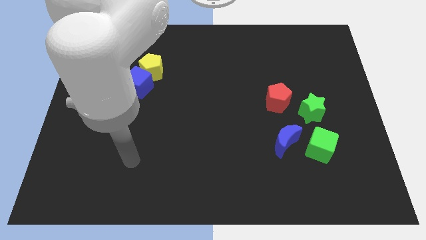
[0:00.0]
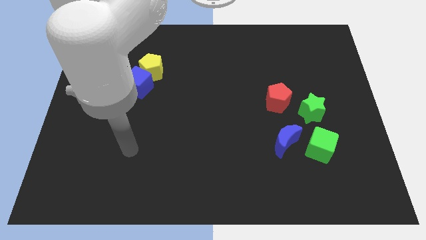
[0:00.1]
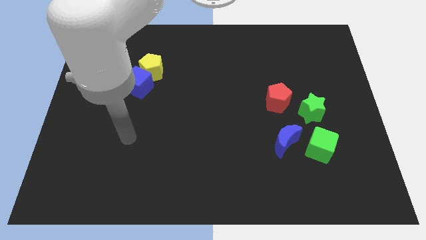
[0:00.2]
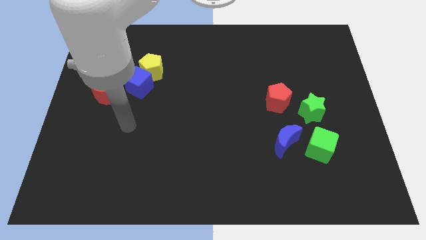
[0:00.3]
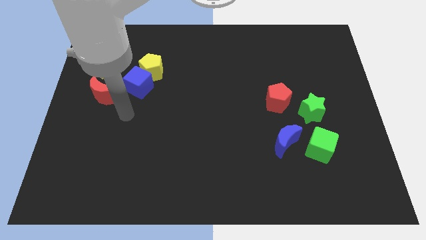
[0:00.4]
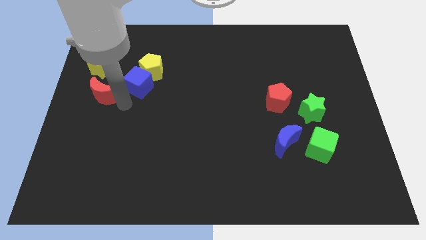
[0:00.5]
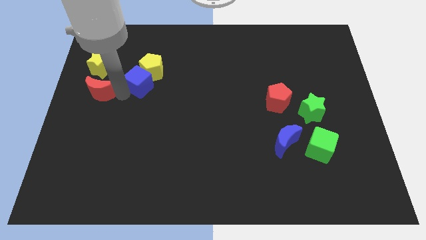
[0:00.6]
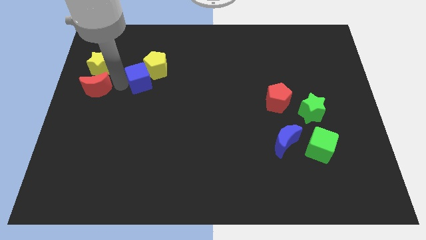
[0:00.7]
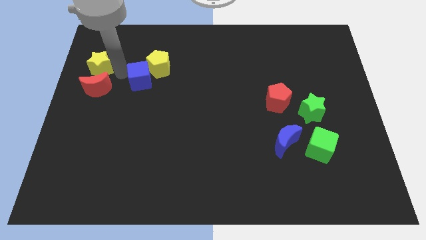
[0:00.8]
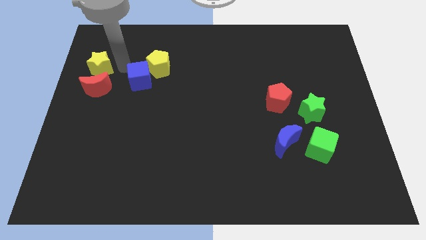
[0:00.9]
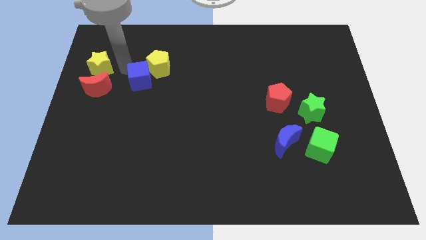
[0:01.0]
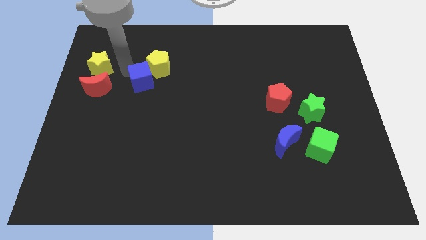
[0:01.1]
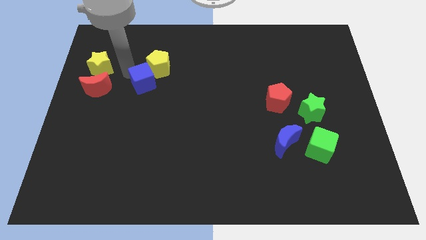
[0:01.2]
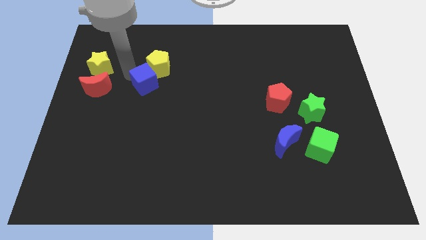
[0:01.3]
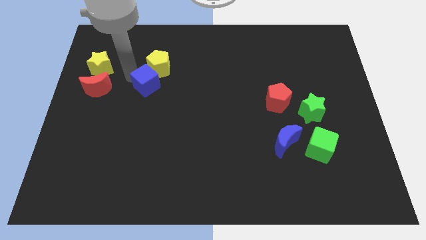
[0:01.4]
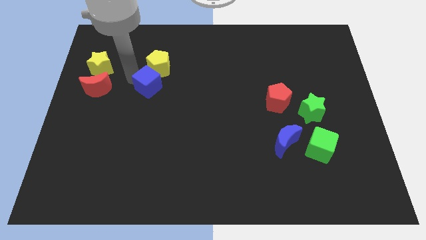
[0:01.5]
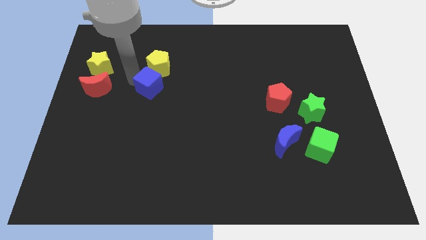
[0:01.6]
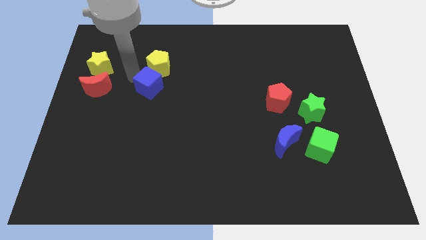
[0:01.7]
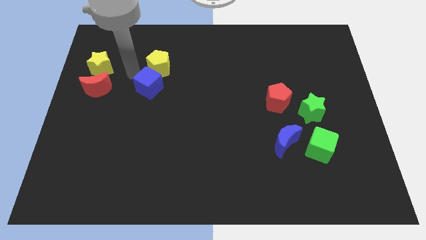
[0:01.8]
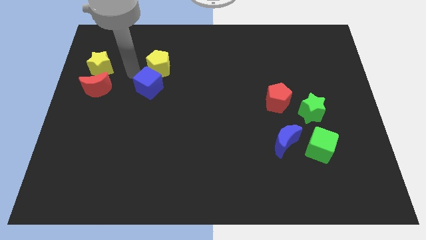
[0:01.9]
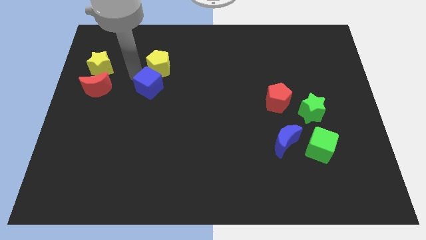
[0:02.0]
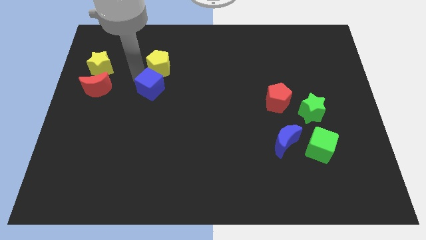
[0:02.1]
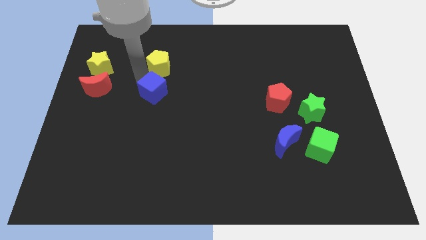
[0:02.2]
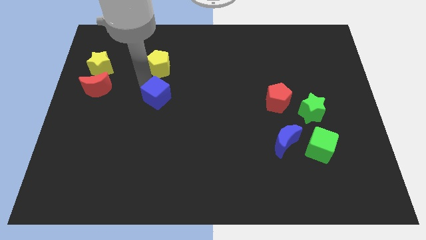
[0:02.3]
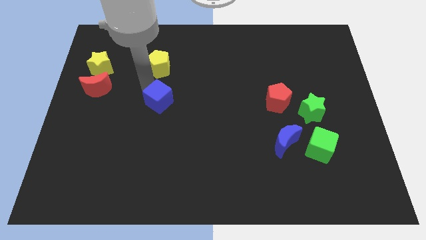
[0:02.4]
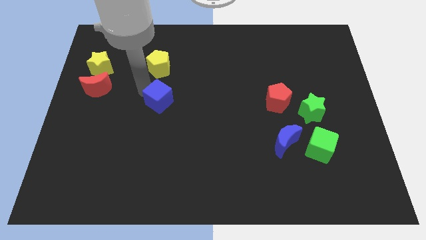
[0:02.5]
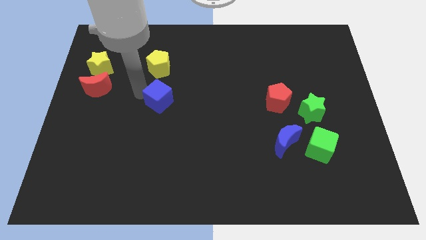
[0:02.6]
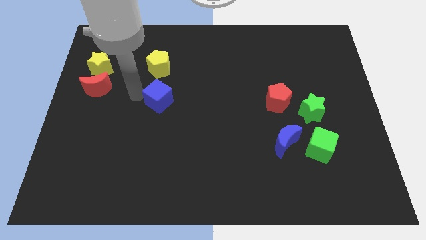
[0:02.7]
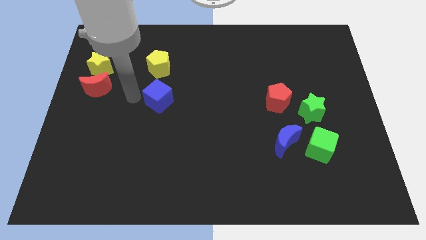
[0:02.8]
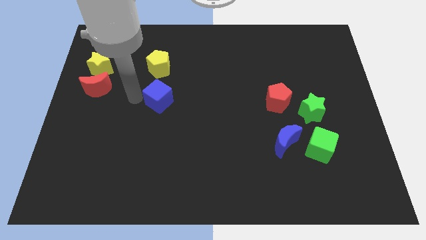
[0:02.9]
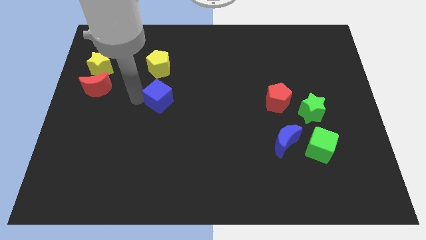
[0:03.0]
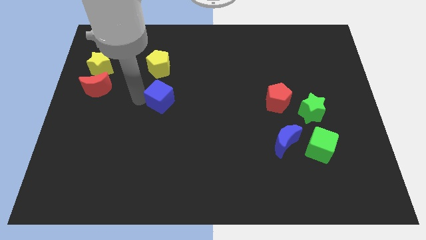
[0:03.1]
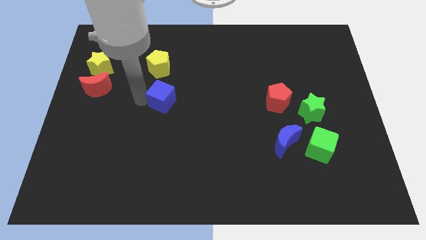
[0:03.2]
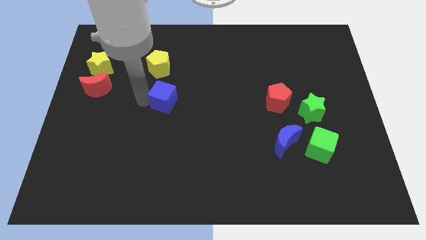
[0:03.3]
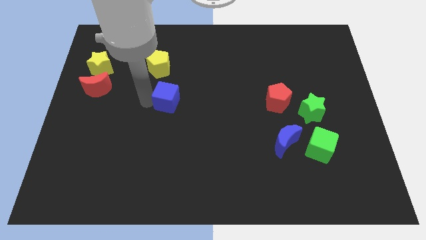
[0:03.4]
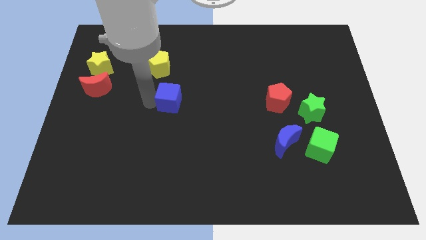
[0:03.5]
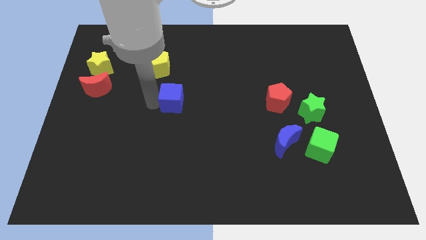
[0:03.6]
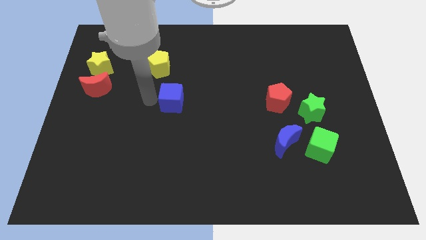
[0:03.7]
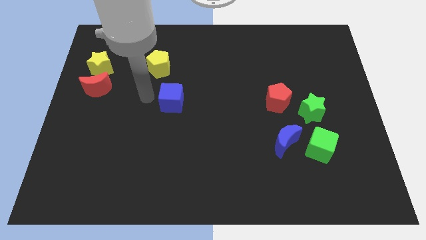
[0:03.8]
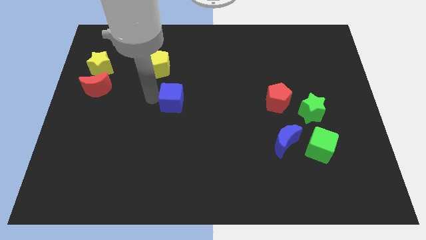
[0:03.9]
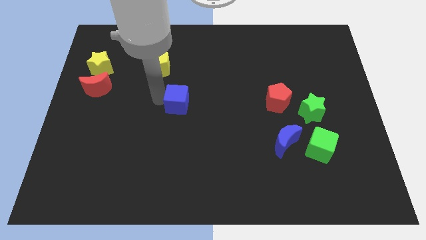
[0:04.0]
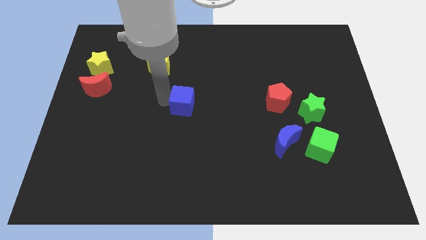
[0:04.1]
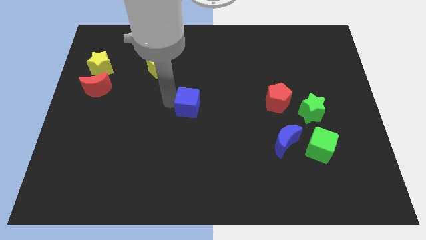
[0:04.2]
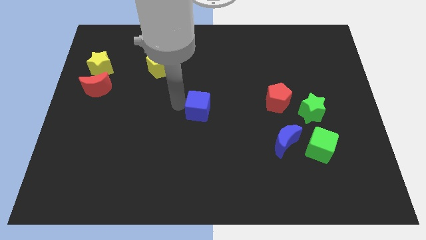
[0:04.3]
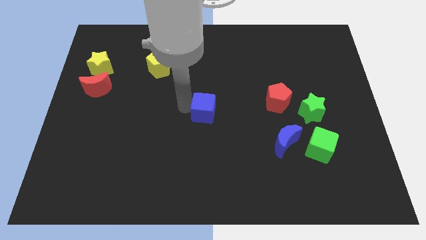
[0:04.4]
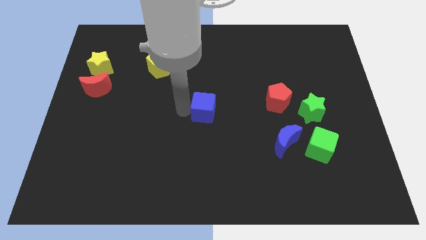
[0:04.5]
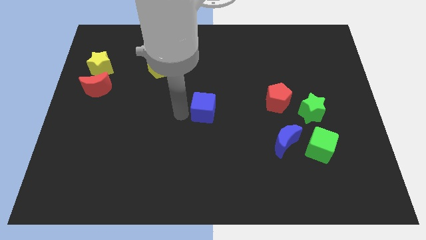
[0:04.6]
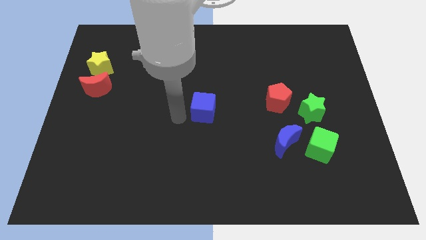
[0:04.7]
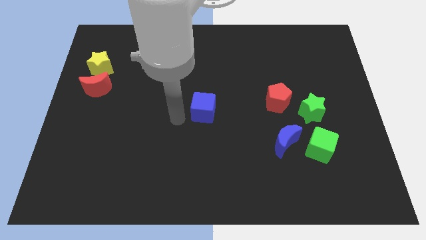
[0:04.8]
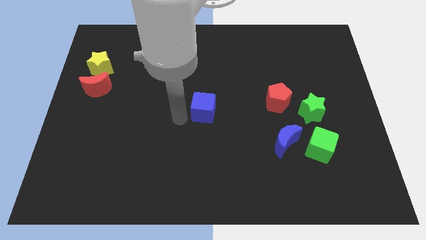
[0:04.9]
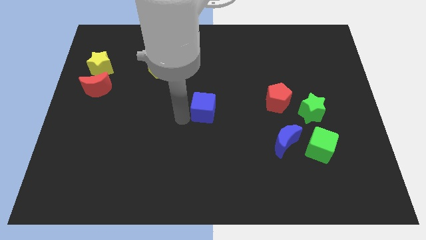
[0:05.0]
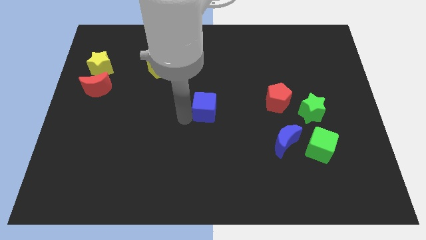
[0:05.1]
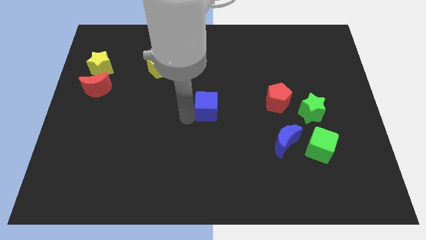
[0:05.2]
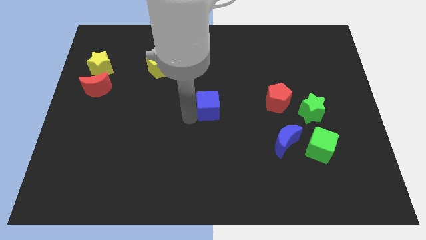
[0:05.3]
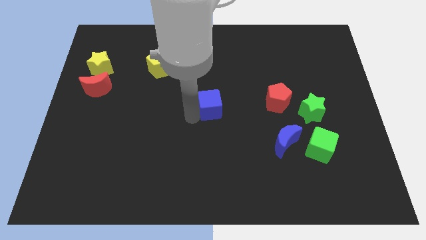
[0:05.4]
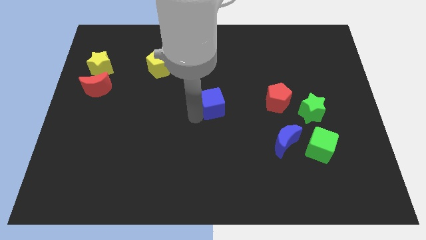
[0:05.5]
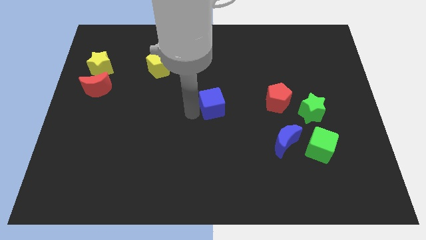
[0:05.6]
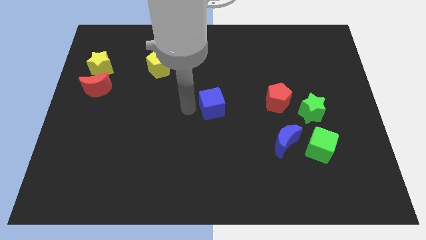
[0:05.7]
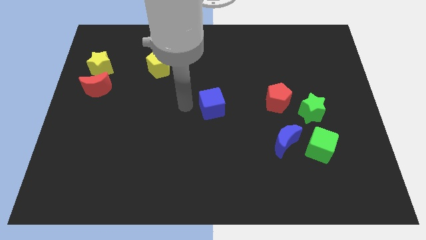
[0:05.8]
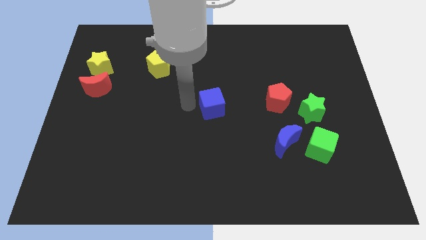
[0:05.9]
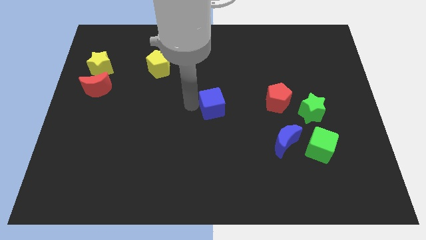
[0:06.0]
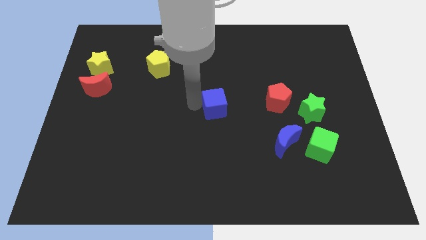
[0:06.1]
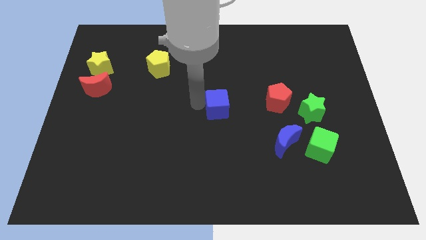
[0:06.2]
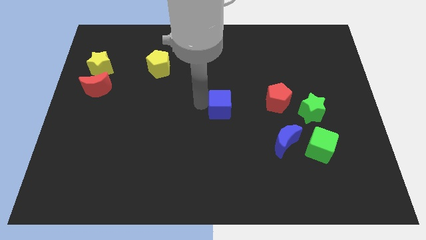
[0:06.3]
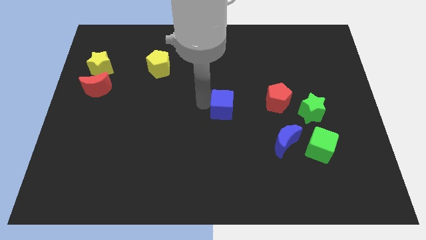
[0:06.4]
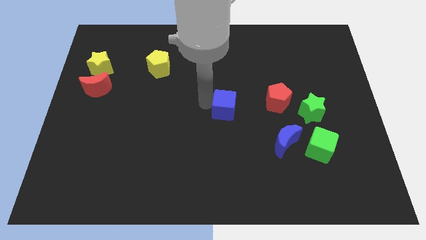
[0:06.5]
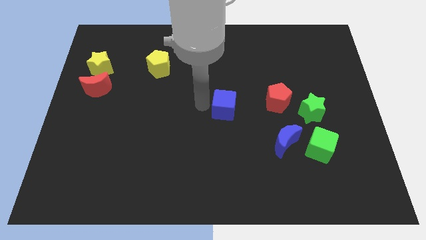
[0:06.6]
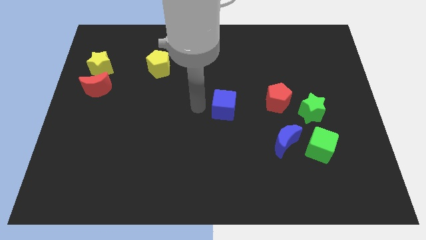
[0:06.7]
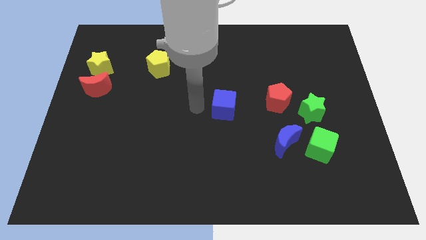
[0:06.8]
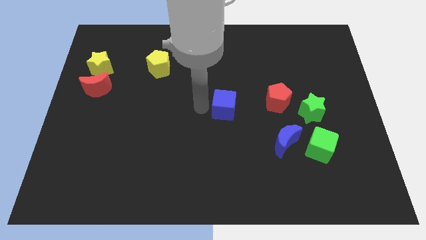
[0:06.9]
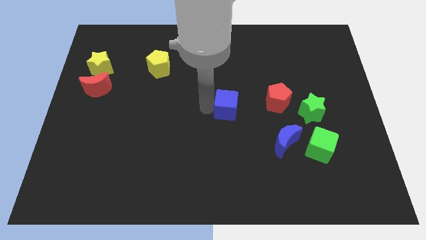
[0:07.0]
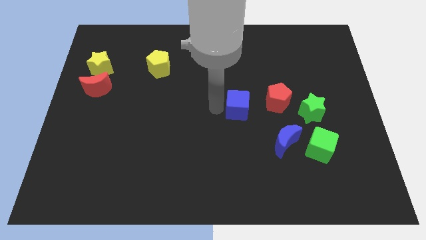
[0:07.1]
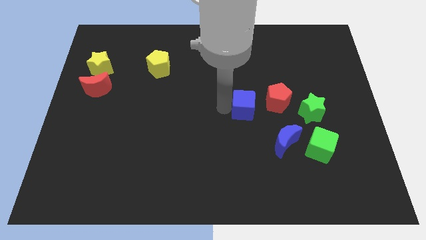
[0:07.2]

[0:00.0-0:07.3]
push the blue cube just left of the green star
